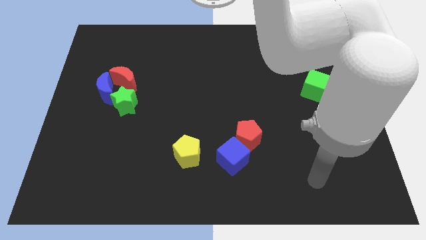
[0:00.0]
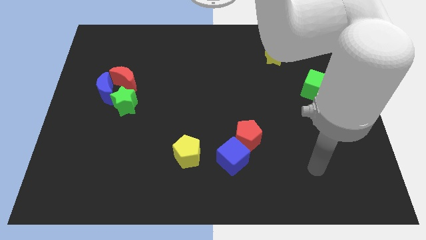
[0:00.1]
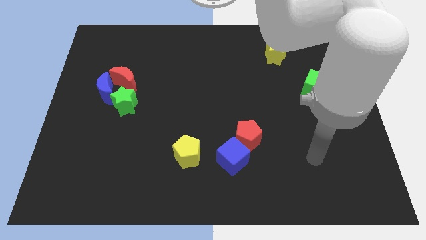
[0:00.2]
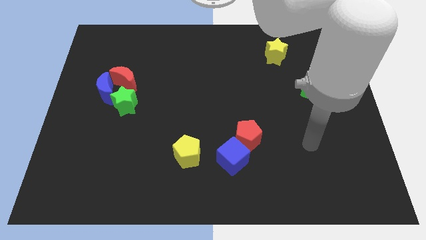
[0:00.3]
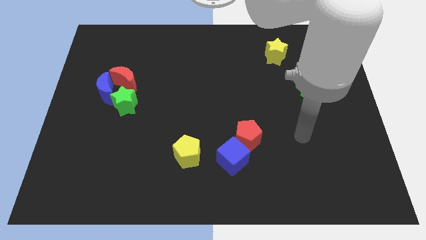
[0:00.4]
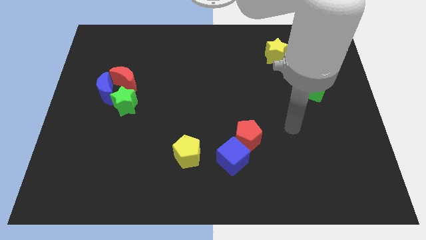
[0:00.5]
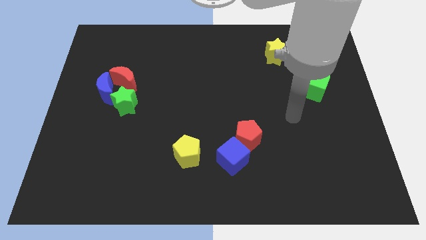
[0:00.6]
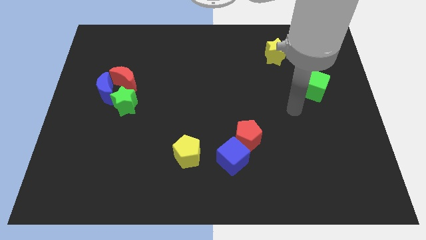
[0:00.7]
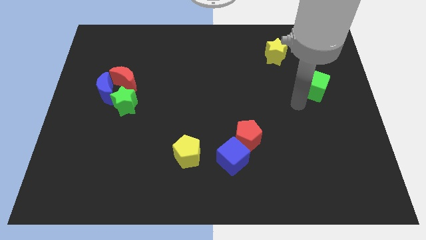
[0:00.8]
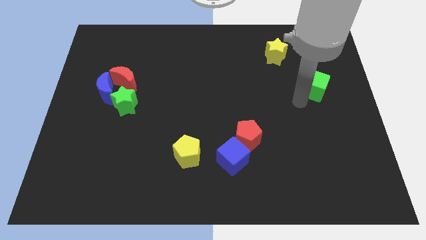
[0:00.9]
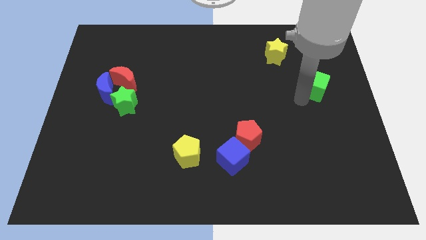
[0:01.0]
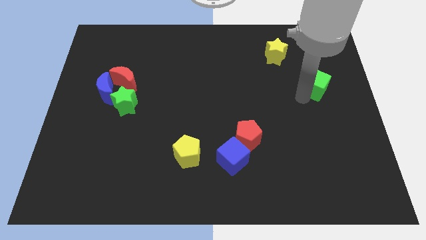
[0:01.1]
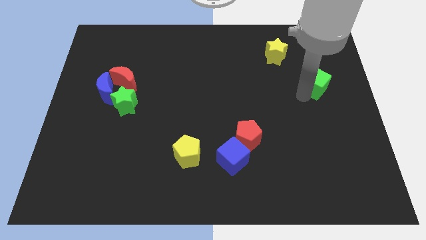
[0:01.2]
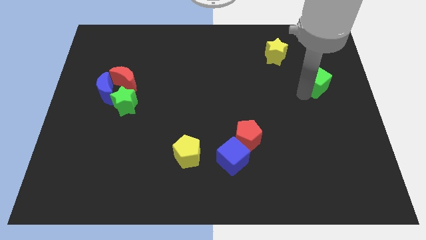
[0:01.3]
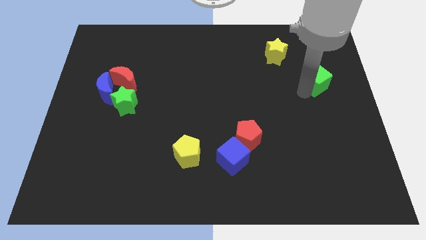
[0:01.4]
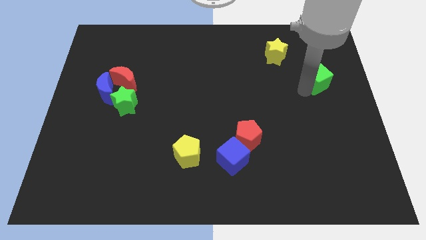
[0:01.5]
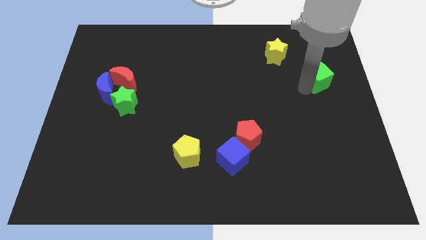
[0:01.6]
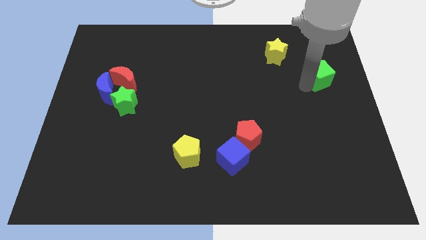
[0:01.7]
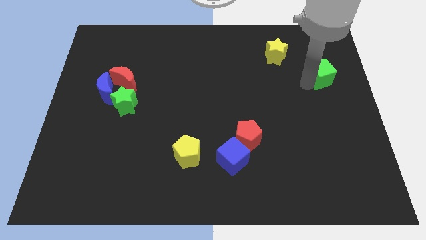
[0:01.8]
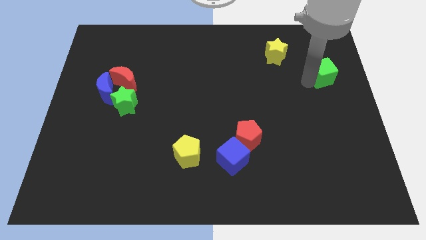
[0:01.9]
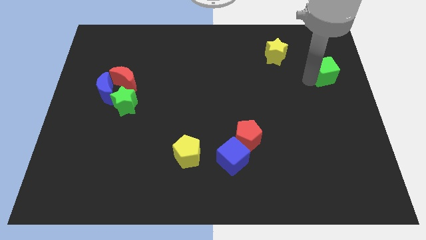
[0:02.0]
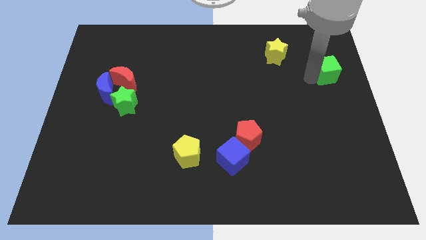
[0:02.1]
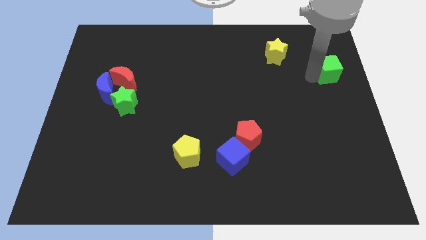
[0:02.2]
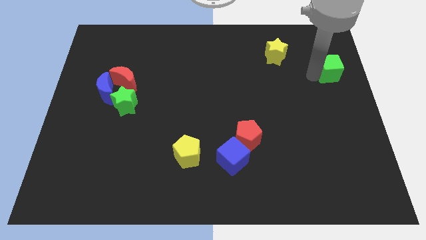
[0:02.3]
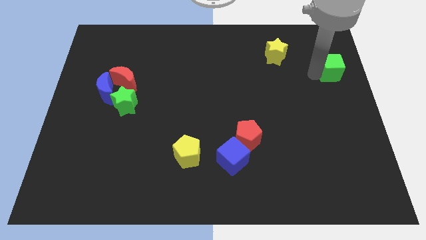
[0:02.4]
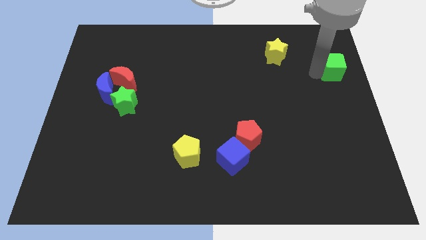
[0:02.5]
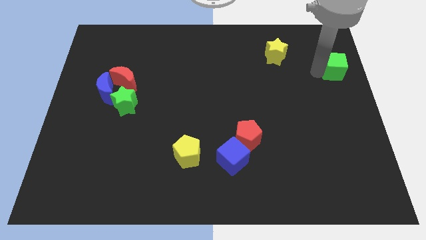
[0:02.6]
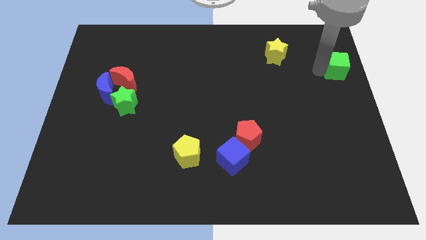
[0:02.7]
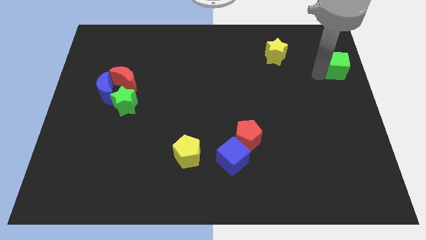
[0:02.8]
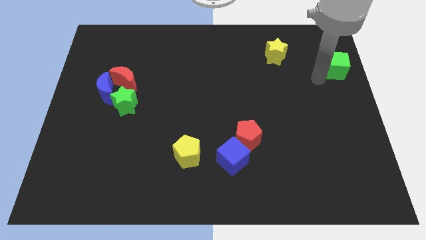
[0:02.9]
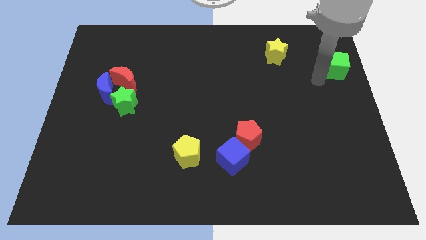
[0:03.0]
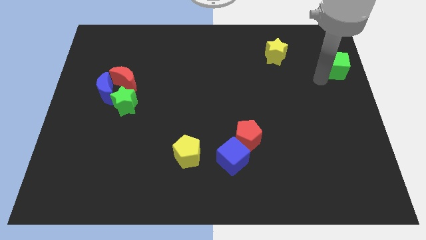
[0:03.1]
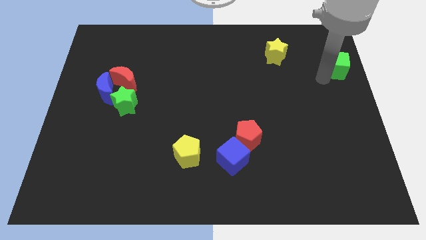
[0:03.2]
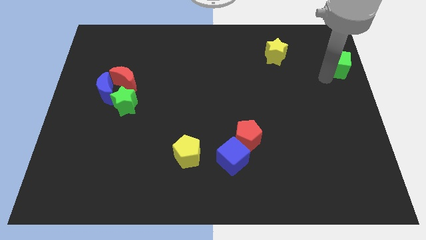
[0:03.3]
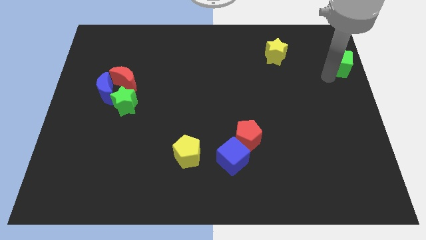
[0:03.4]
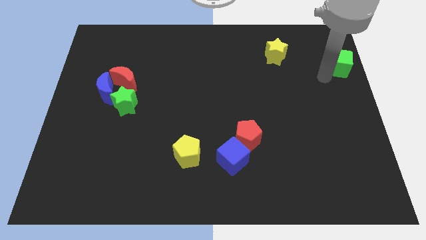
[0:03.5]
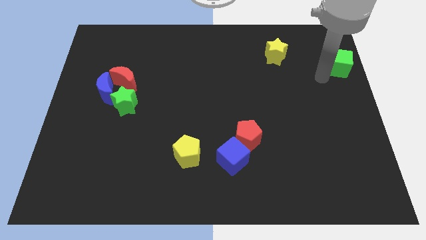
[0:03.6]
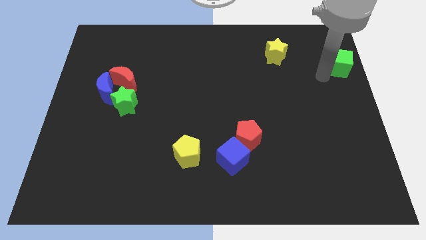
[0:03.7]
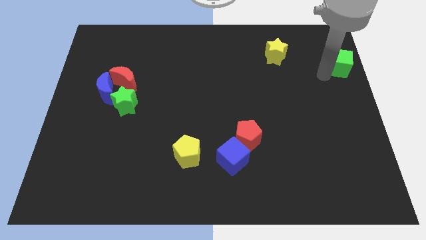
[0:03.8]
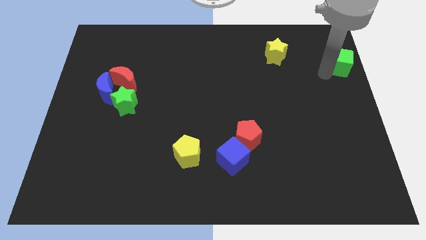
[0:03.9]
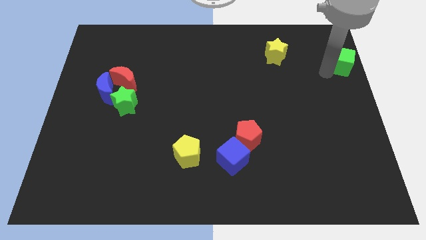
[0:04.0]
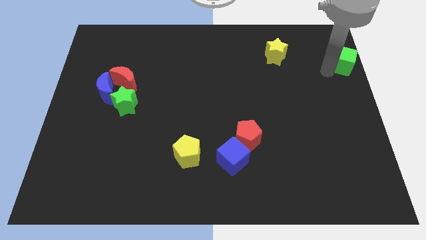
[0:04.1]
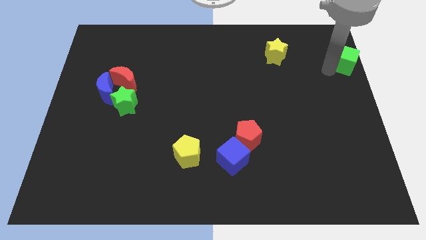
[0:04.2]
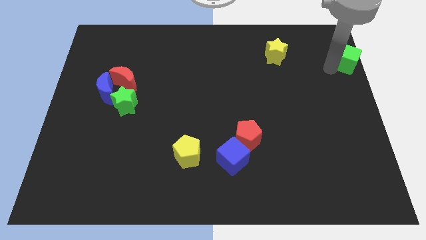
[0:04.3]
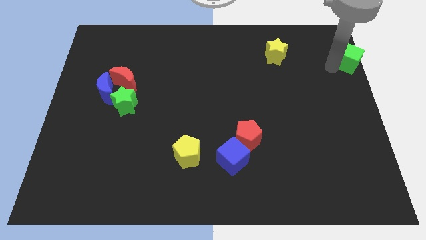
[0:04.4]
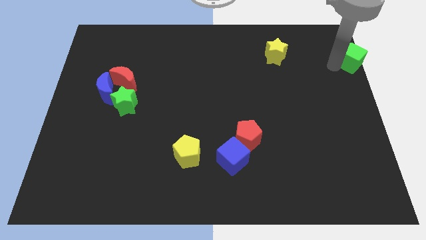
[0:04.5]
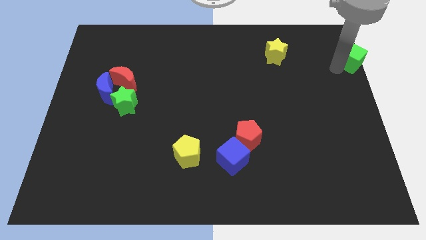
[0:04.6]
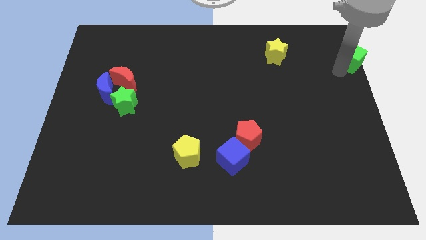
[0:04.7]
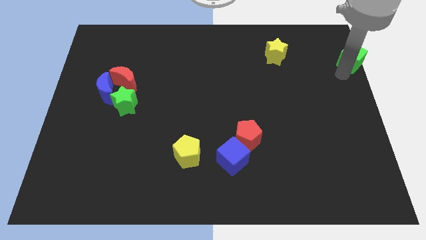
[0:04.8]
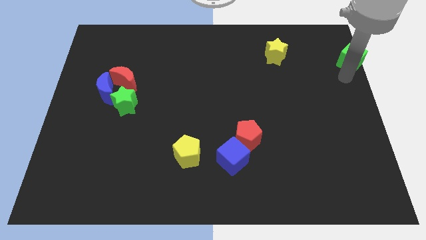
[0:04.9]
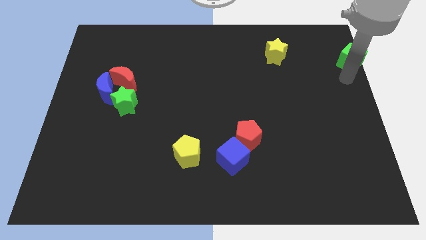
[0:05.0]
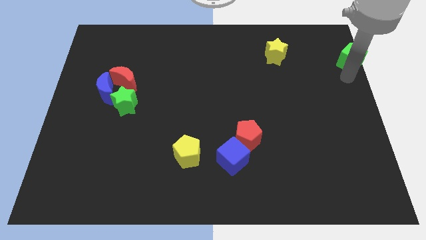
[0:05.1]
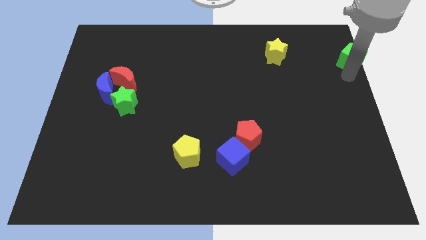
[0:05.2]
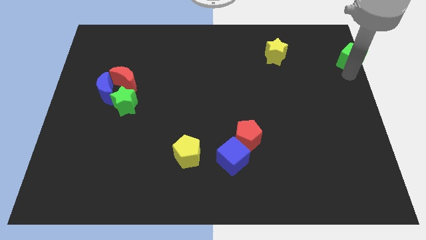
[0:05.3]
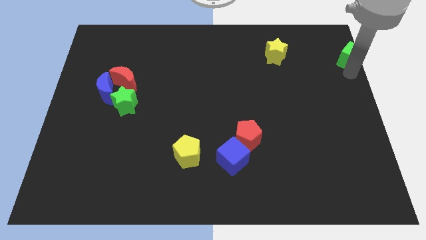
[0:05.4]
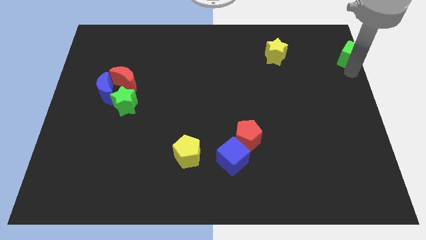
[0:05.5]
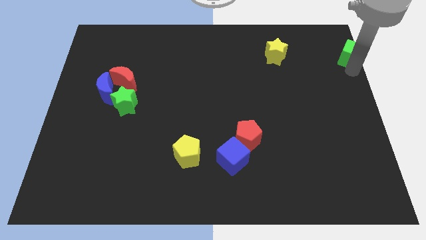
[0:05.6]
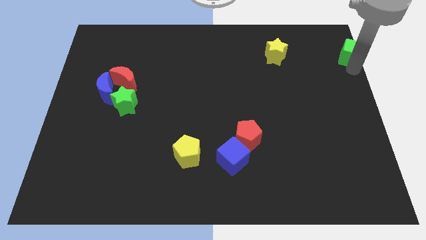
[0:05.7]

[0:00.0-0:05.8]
move the green cube to the top right corner
